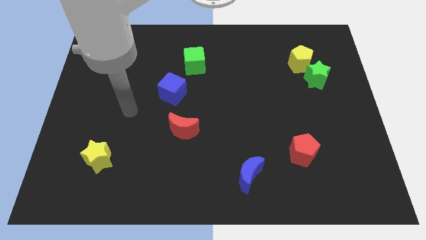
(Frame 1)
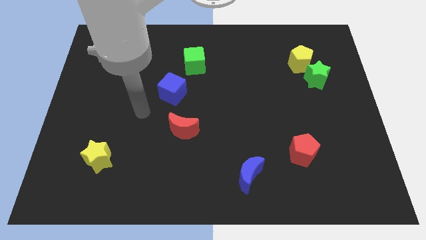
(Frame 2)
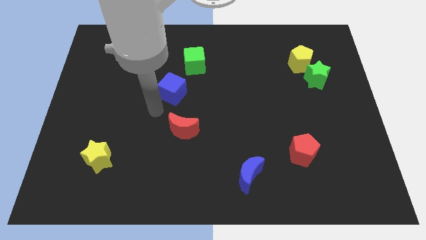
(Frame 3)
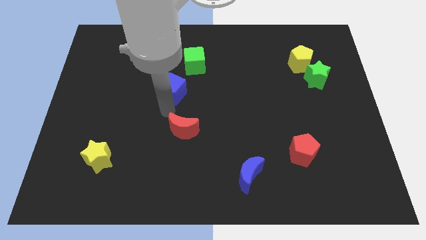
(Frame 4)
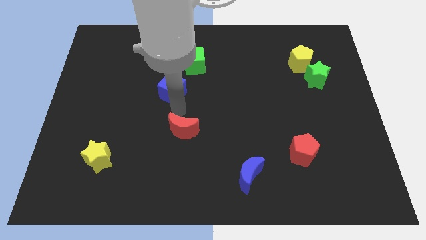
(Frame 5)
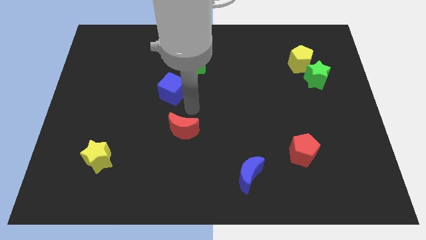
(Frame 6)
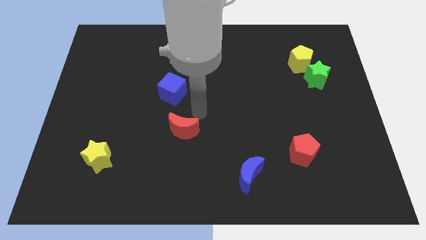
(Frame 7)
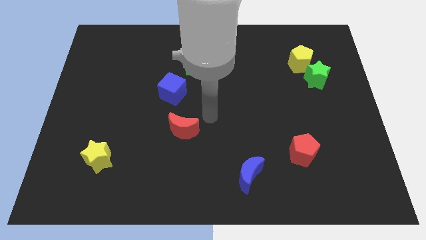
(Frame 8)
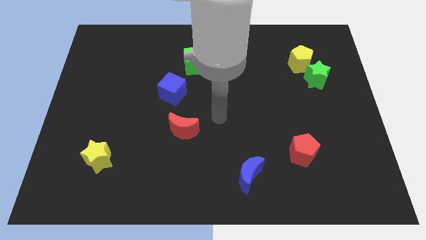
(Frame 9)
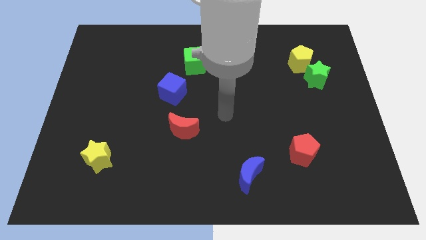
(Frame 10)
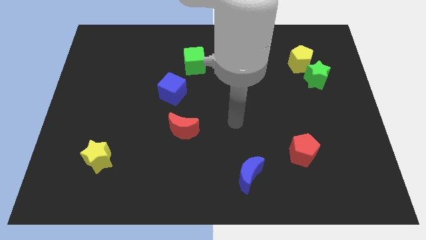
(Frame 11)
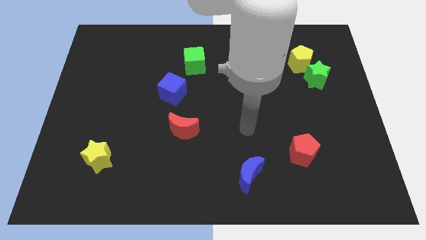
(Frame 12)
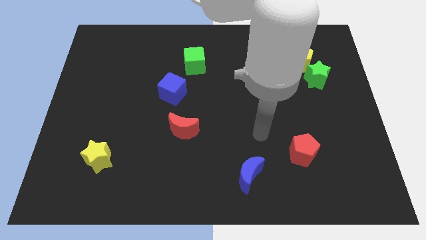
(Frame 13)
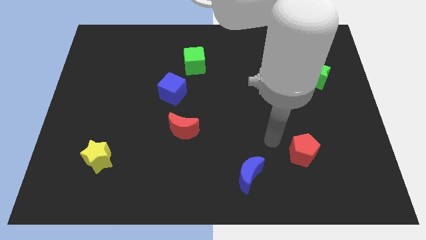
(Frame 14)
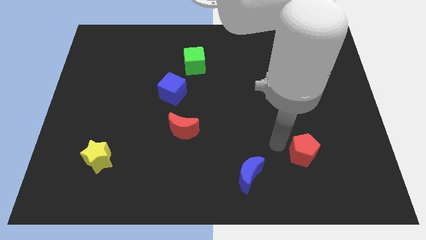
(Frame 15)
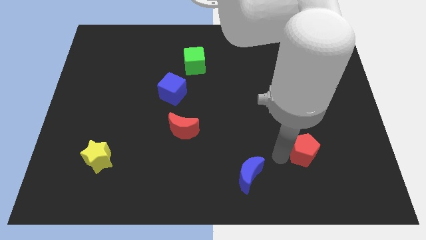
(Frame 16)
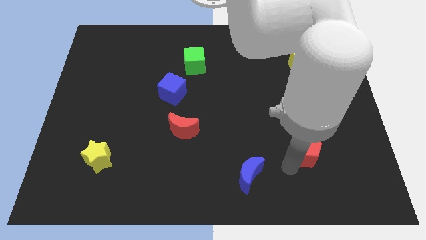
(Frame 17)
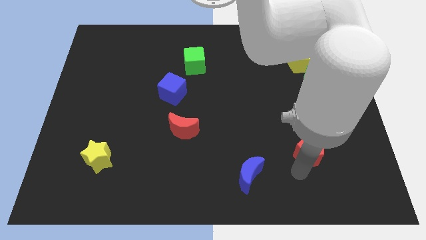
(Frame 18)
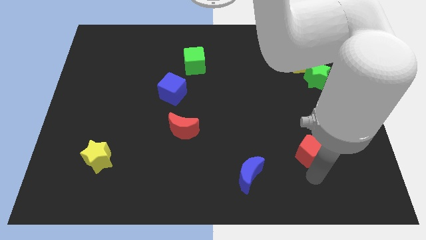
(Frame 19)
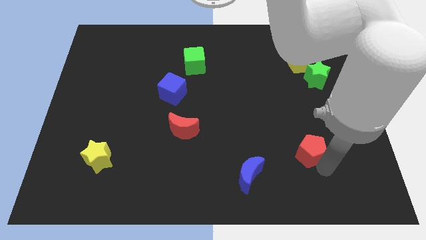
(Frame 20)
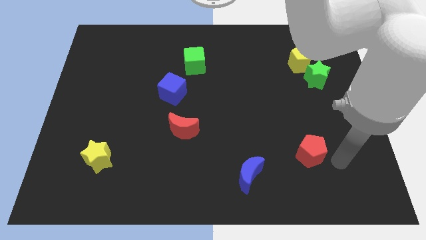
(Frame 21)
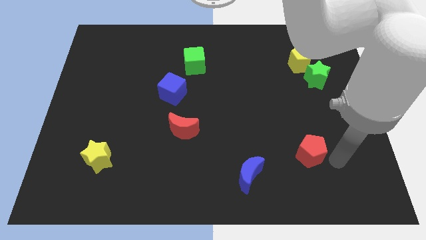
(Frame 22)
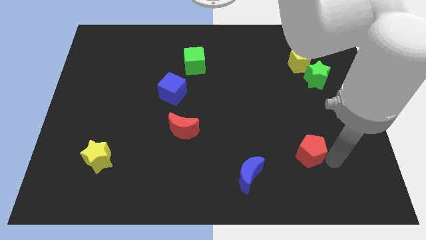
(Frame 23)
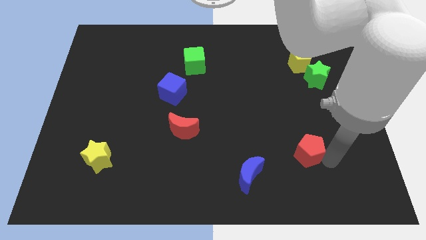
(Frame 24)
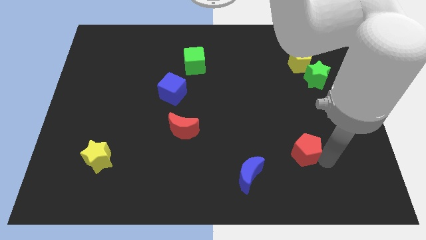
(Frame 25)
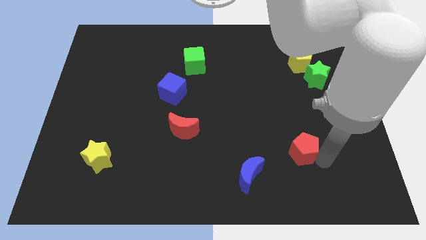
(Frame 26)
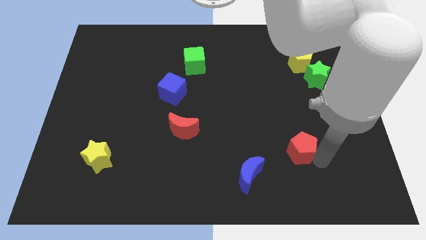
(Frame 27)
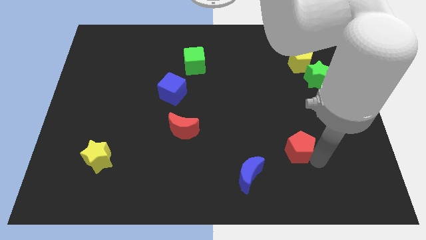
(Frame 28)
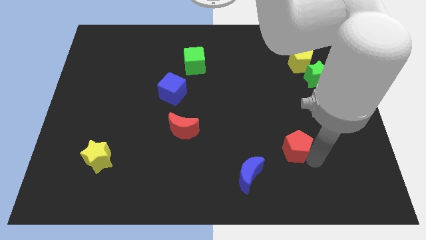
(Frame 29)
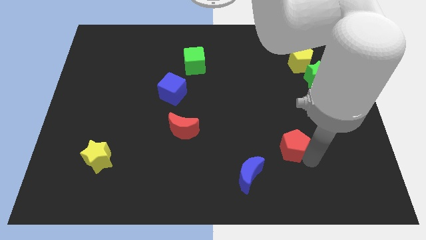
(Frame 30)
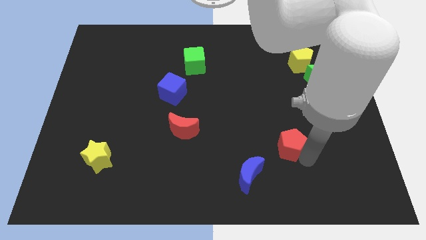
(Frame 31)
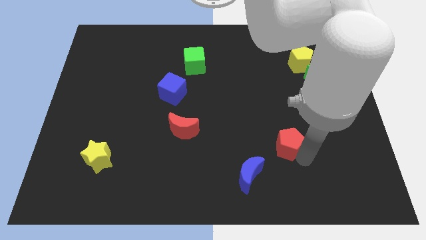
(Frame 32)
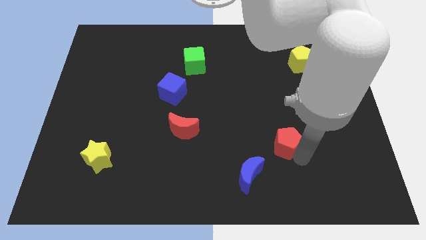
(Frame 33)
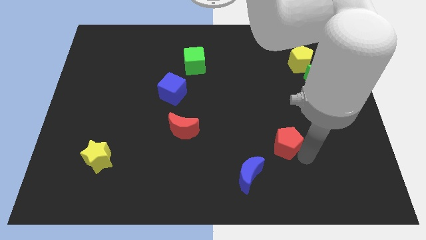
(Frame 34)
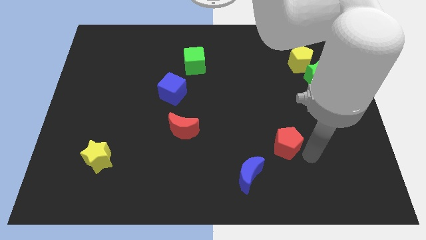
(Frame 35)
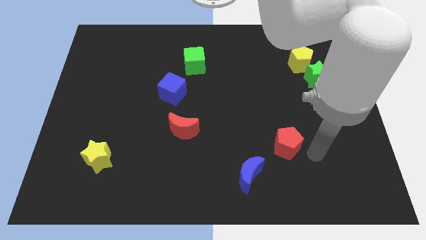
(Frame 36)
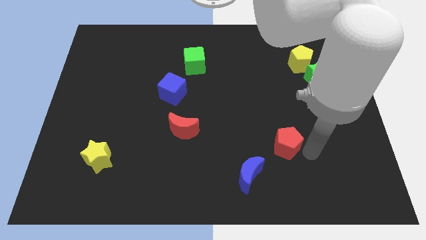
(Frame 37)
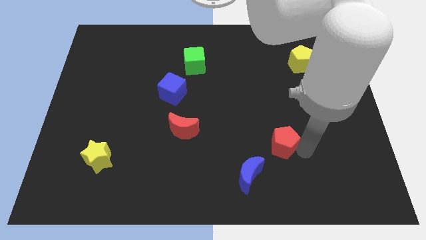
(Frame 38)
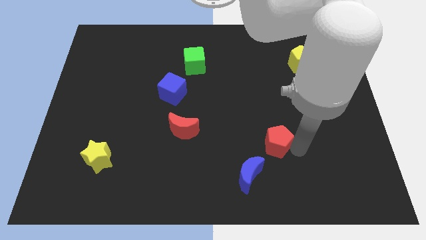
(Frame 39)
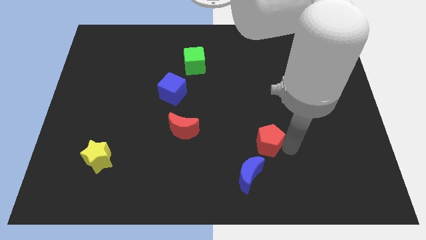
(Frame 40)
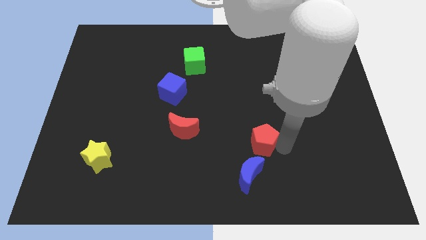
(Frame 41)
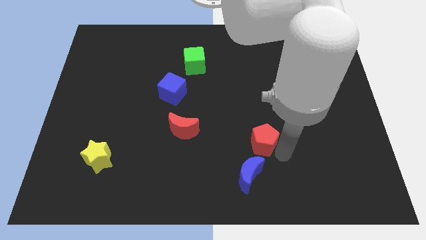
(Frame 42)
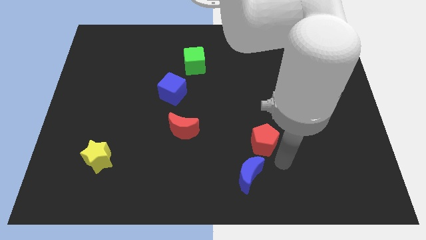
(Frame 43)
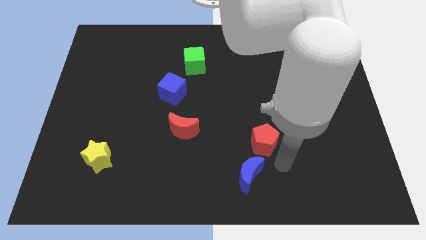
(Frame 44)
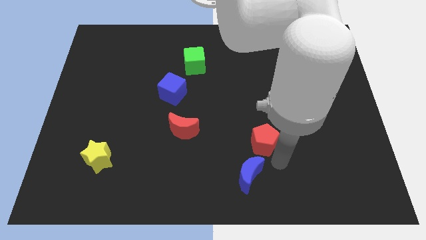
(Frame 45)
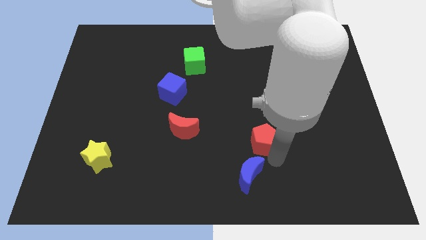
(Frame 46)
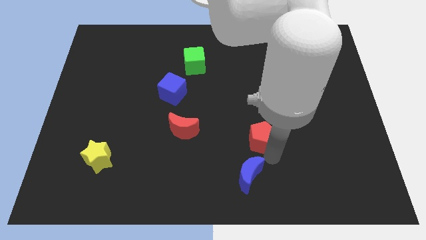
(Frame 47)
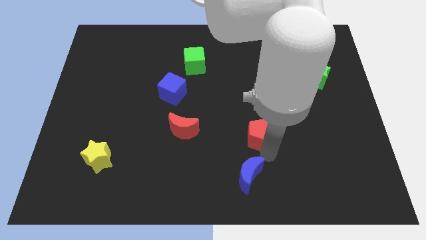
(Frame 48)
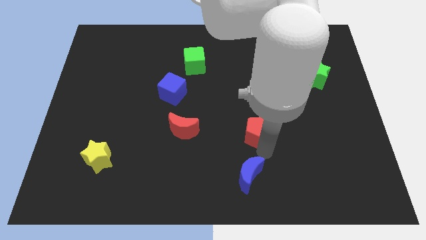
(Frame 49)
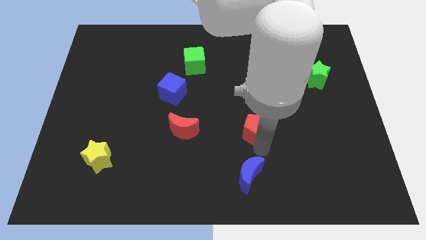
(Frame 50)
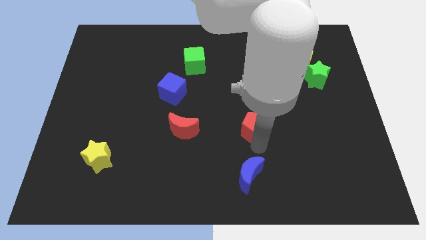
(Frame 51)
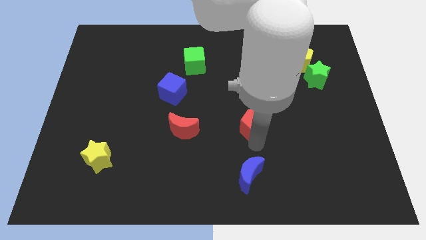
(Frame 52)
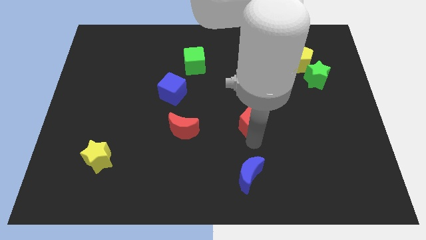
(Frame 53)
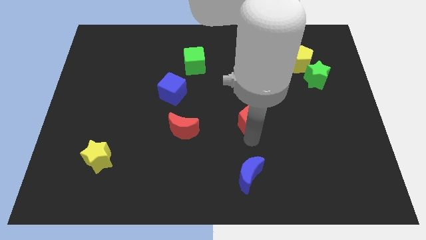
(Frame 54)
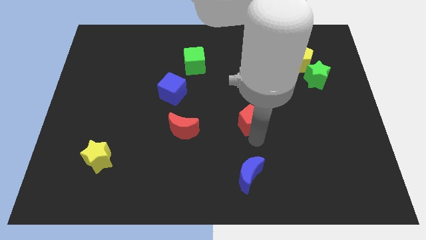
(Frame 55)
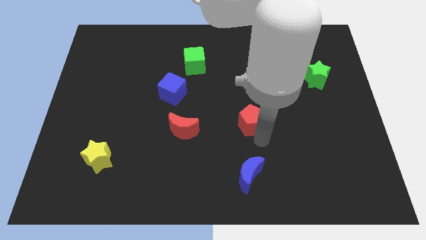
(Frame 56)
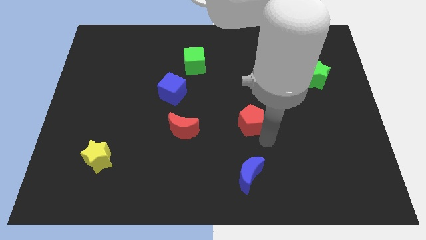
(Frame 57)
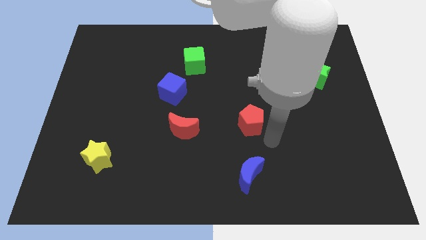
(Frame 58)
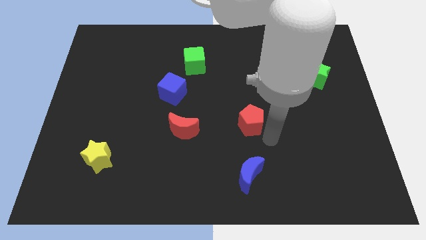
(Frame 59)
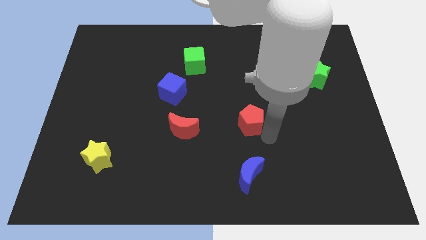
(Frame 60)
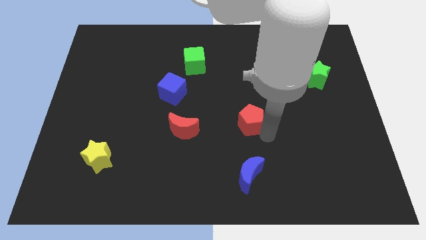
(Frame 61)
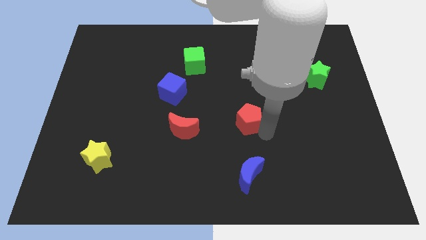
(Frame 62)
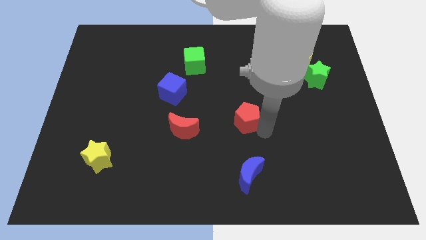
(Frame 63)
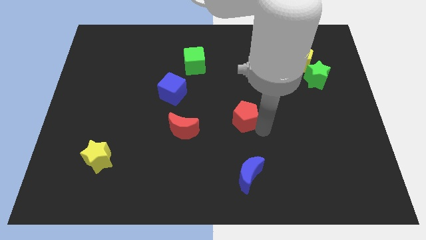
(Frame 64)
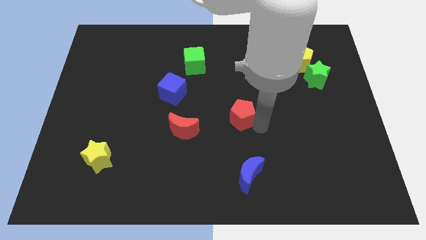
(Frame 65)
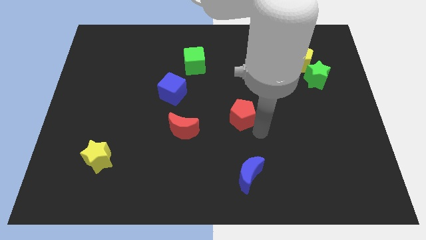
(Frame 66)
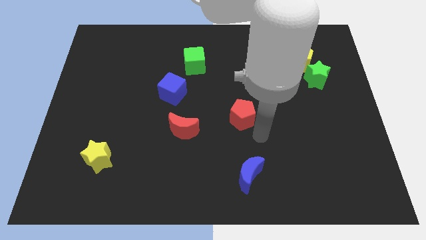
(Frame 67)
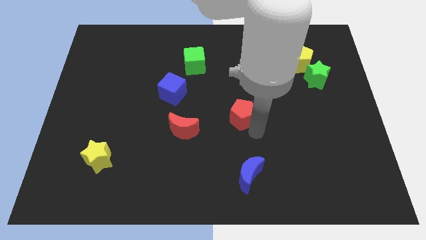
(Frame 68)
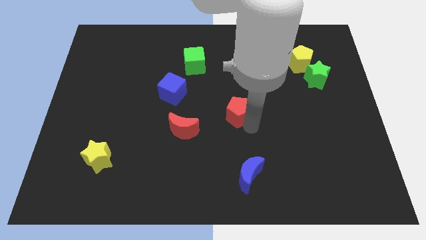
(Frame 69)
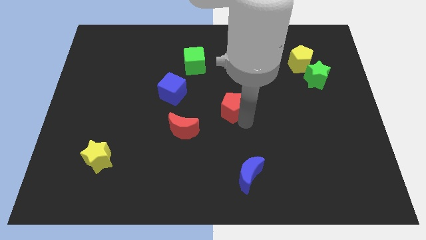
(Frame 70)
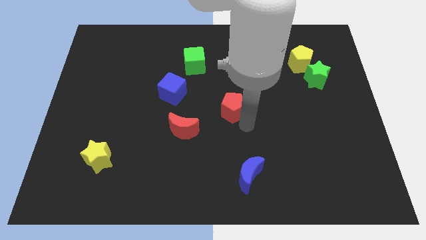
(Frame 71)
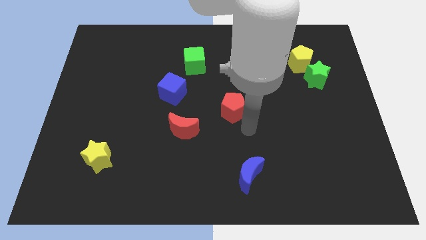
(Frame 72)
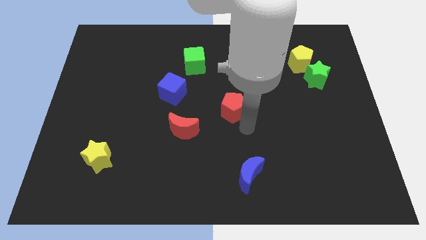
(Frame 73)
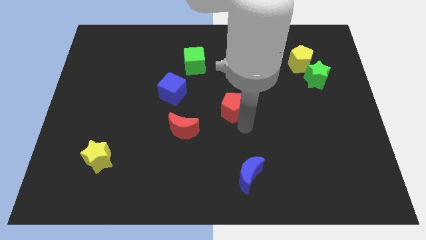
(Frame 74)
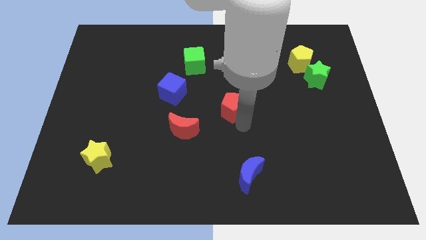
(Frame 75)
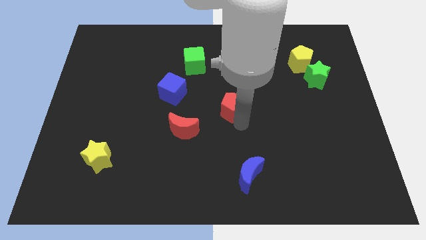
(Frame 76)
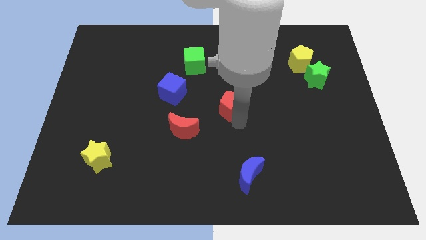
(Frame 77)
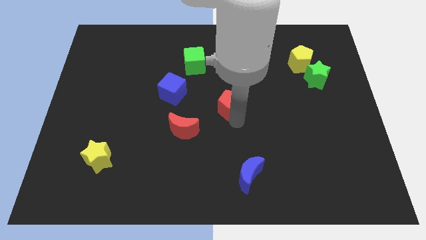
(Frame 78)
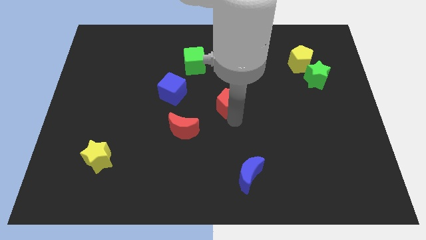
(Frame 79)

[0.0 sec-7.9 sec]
push the red pentagon diagonally up and left
